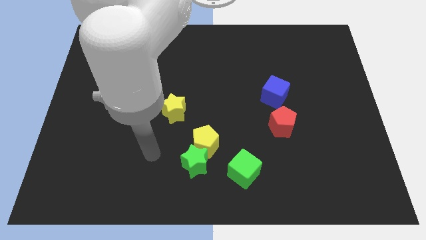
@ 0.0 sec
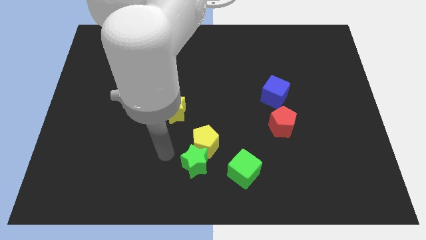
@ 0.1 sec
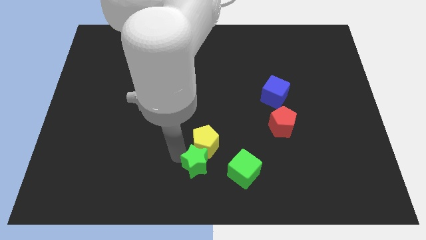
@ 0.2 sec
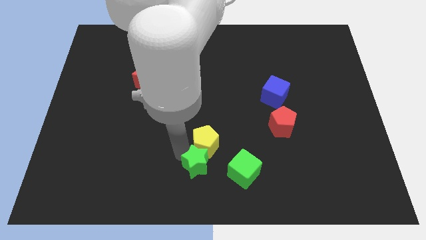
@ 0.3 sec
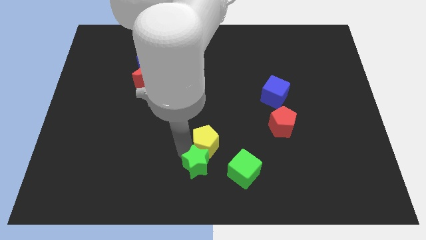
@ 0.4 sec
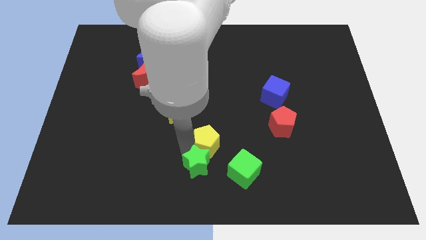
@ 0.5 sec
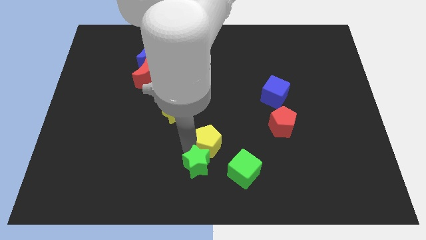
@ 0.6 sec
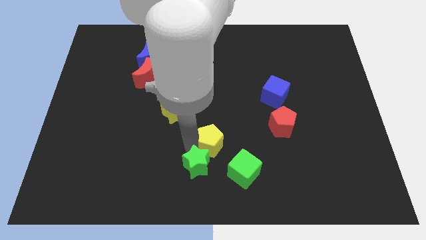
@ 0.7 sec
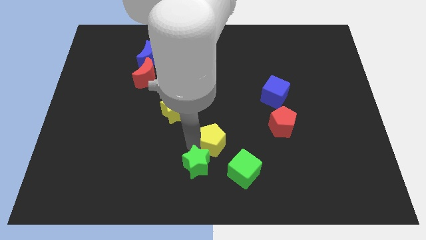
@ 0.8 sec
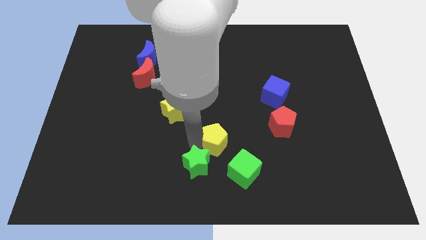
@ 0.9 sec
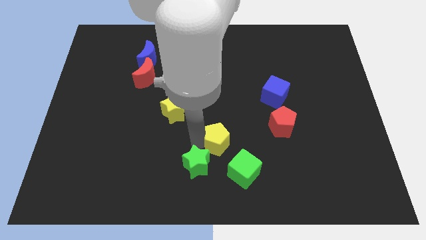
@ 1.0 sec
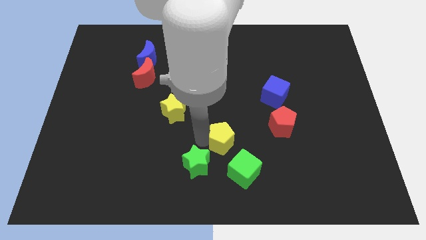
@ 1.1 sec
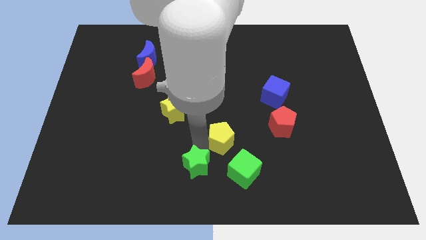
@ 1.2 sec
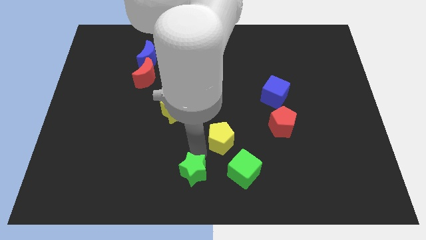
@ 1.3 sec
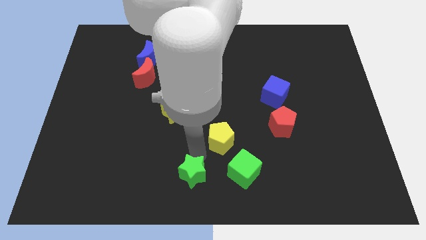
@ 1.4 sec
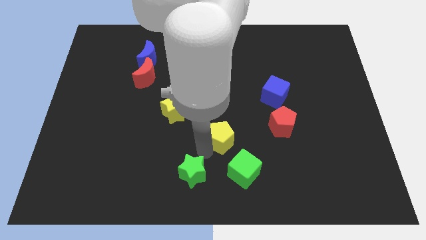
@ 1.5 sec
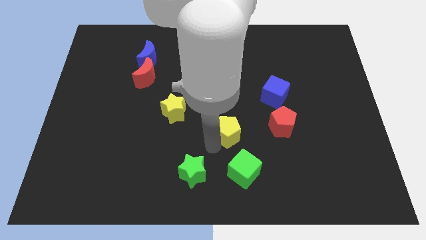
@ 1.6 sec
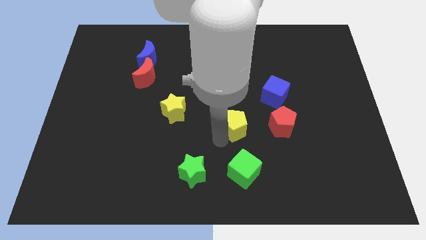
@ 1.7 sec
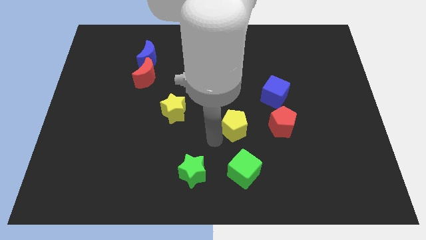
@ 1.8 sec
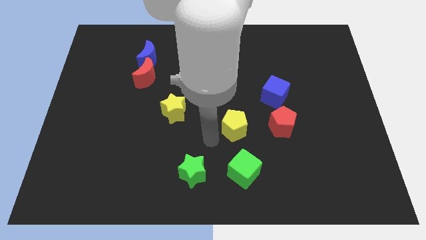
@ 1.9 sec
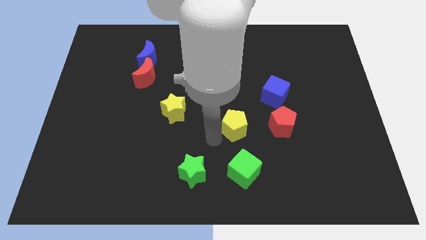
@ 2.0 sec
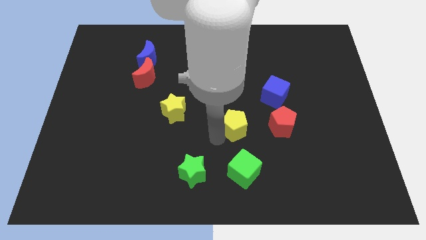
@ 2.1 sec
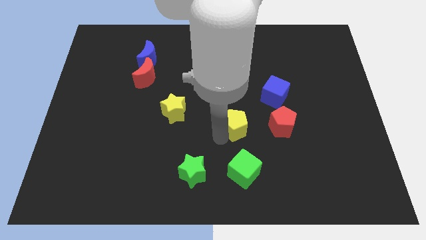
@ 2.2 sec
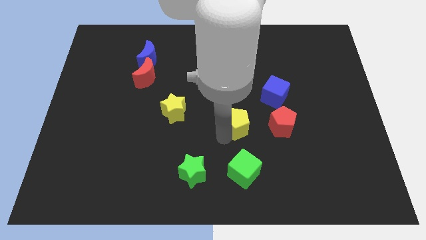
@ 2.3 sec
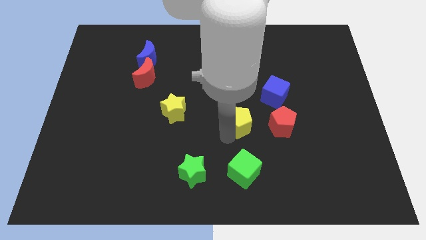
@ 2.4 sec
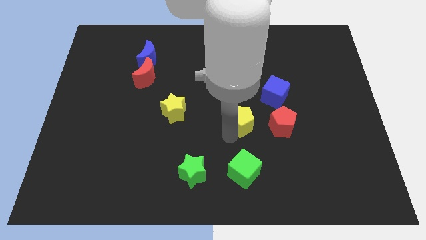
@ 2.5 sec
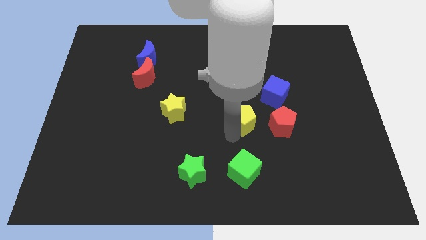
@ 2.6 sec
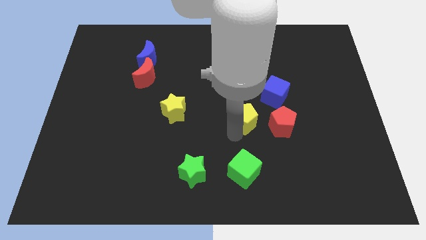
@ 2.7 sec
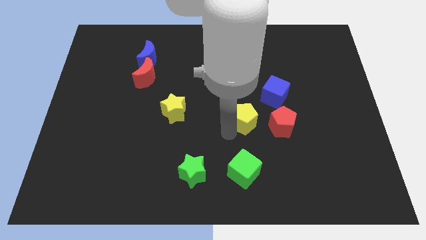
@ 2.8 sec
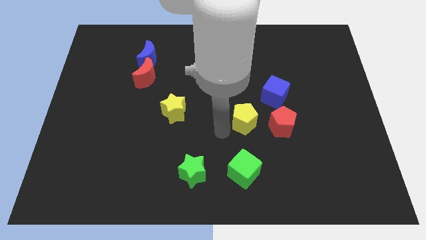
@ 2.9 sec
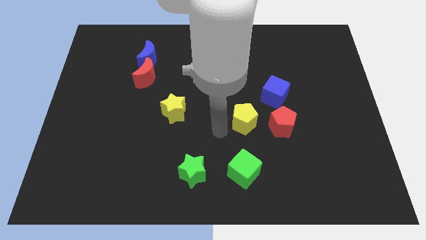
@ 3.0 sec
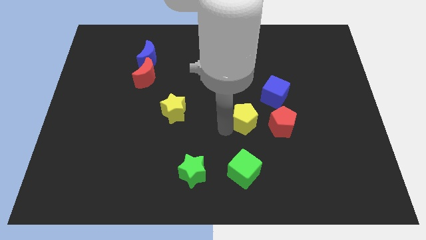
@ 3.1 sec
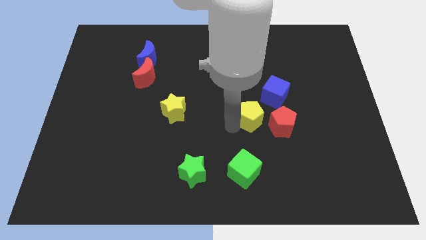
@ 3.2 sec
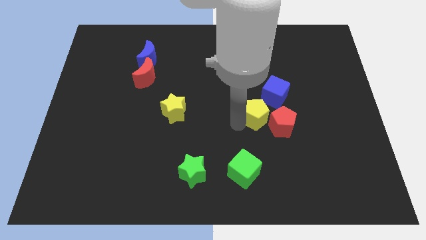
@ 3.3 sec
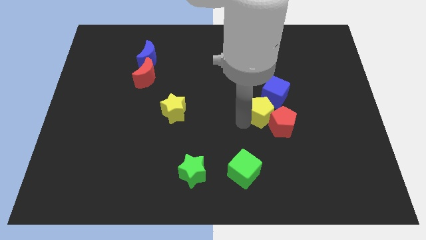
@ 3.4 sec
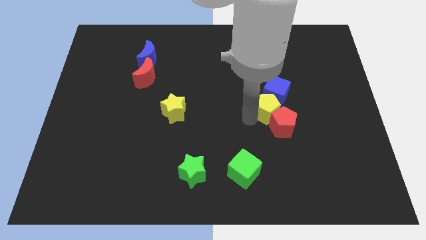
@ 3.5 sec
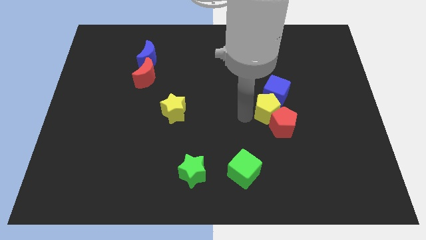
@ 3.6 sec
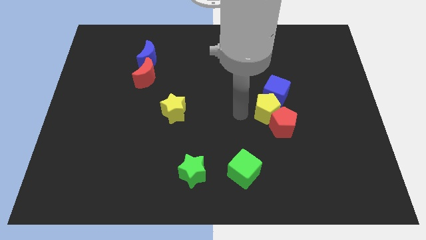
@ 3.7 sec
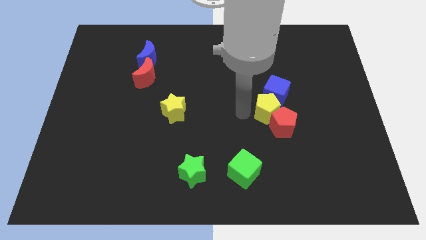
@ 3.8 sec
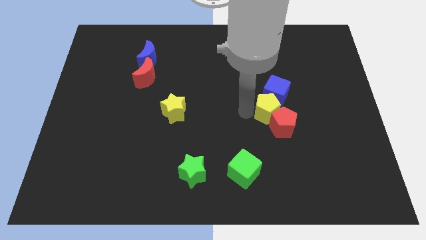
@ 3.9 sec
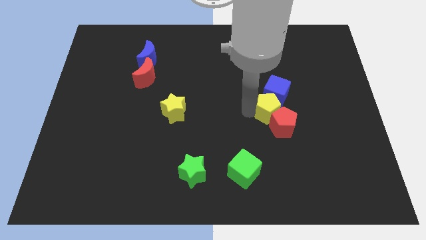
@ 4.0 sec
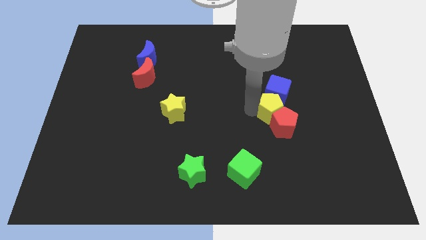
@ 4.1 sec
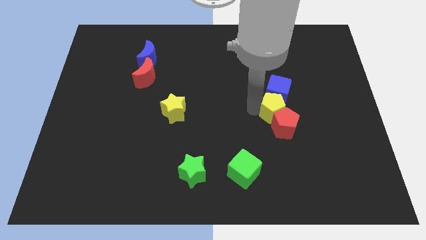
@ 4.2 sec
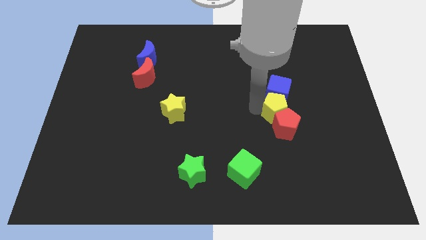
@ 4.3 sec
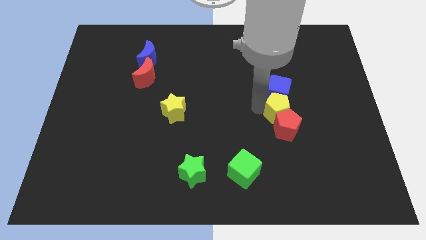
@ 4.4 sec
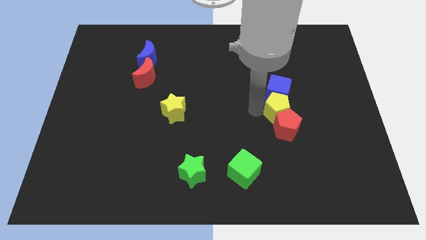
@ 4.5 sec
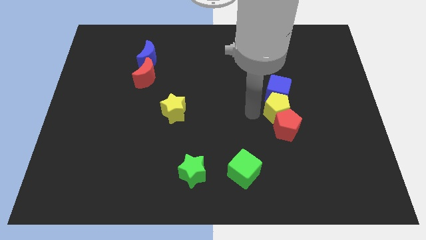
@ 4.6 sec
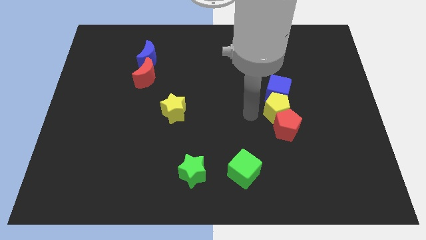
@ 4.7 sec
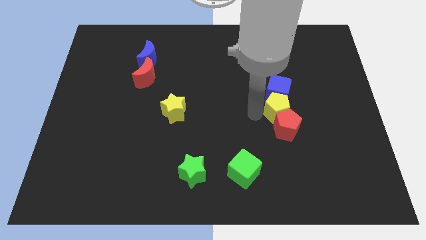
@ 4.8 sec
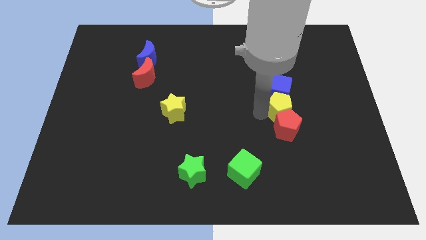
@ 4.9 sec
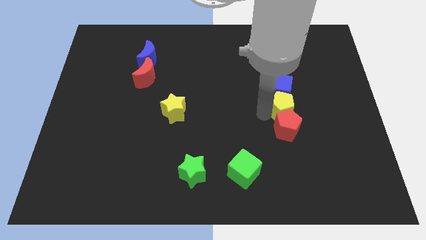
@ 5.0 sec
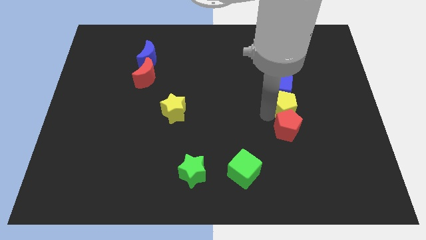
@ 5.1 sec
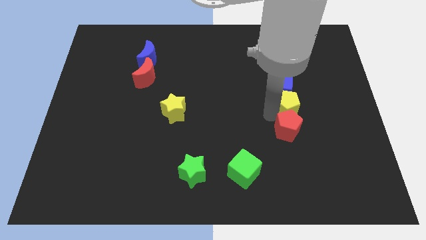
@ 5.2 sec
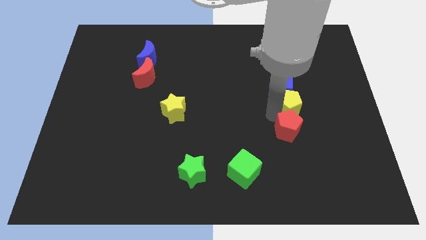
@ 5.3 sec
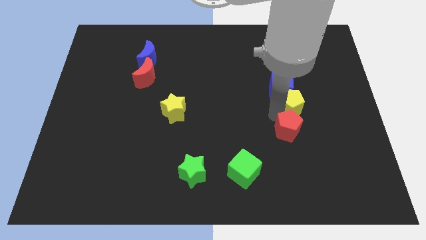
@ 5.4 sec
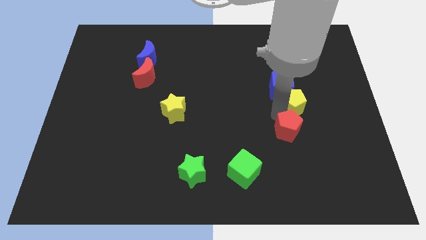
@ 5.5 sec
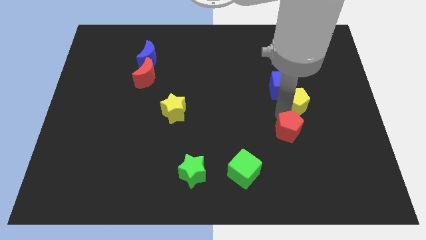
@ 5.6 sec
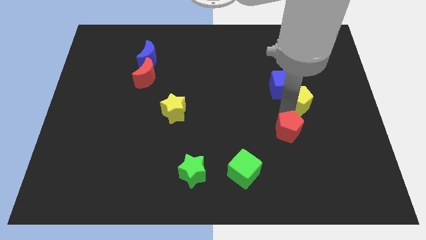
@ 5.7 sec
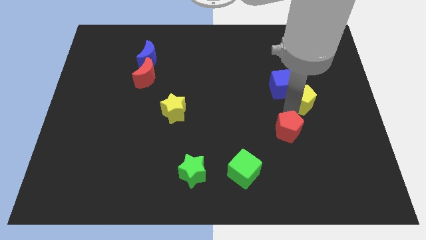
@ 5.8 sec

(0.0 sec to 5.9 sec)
push the yellow pentagon to the right of the blue cube
